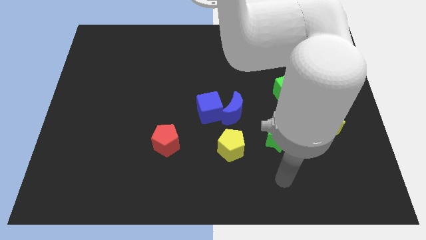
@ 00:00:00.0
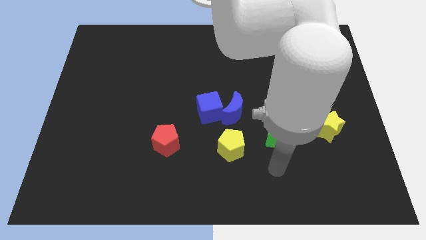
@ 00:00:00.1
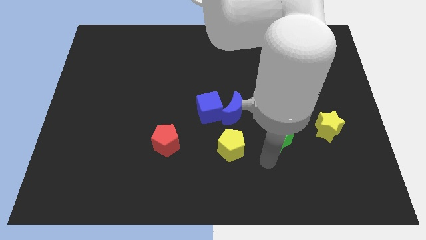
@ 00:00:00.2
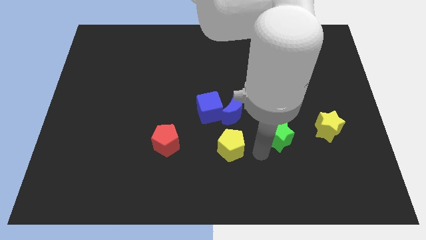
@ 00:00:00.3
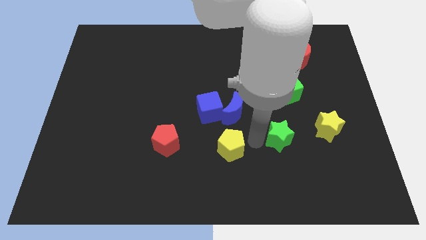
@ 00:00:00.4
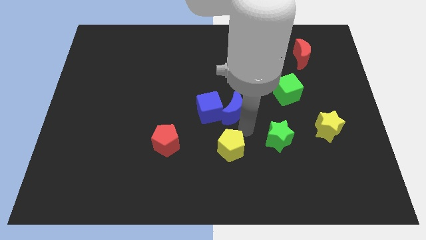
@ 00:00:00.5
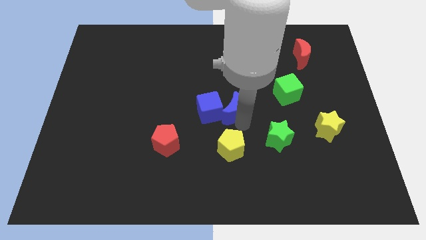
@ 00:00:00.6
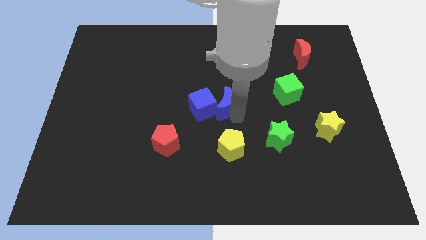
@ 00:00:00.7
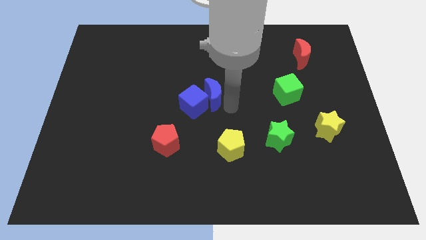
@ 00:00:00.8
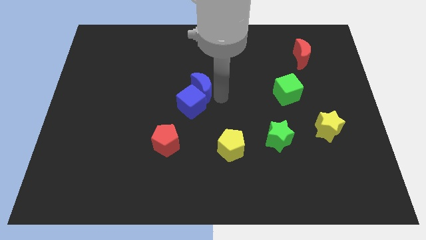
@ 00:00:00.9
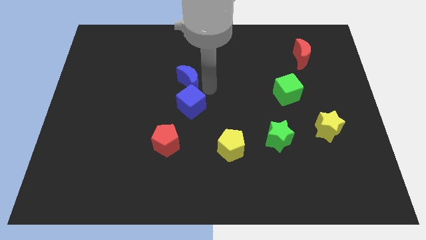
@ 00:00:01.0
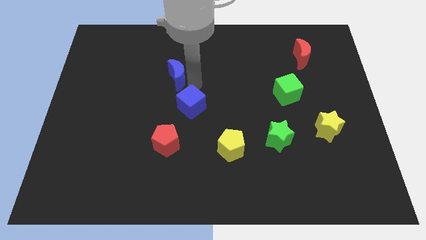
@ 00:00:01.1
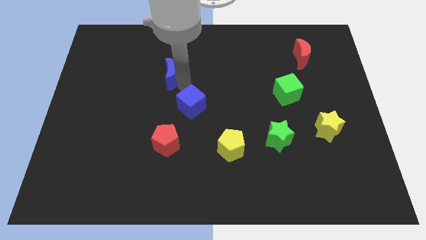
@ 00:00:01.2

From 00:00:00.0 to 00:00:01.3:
separate the blue cube from the blue moon

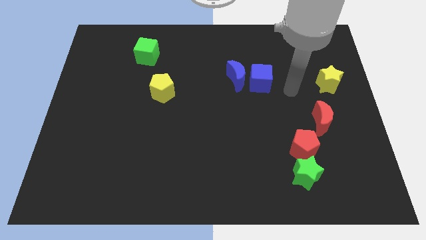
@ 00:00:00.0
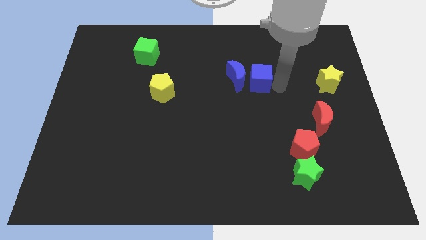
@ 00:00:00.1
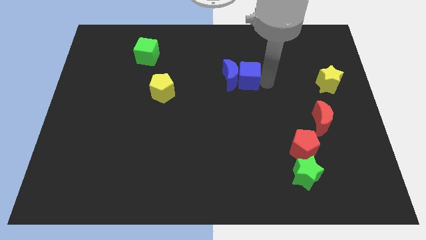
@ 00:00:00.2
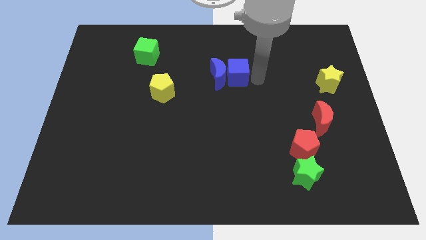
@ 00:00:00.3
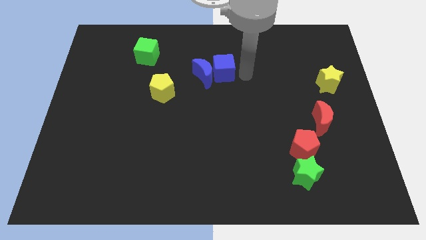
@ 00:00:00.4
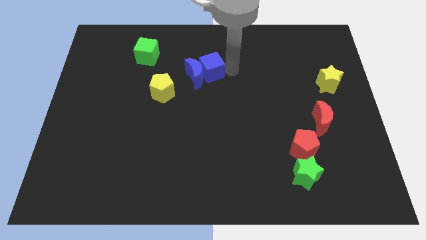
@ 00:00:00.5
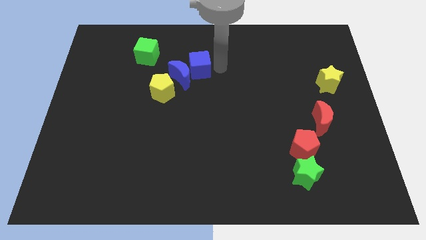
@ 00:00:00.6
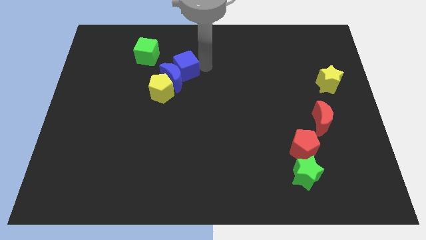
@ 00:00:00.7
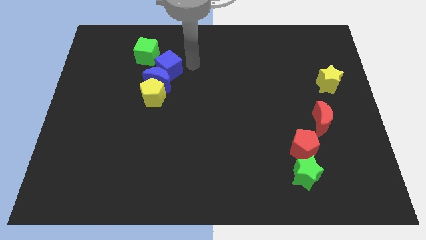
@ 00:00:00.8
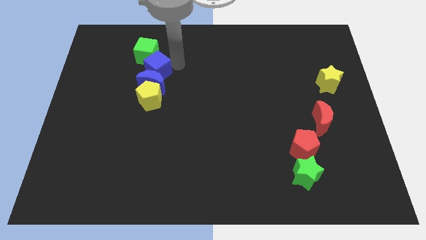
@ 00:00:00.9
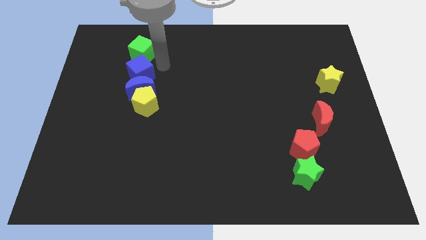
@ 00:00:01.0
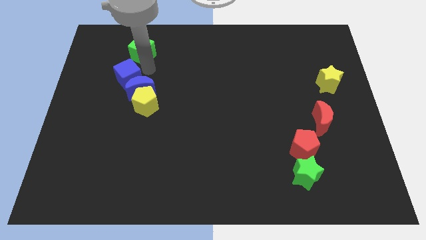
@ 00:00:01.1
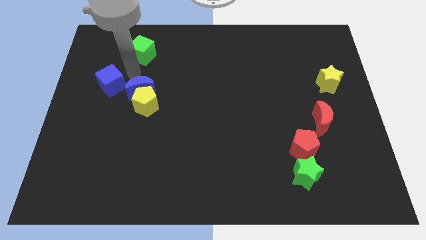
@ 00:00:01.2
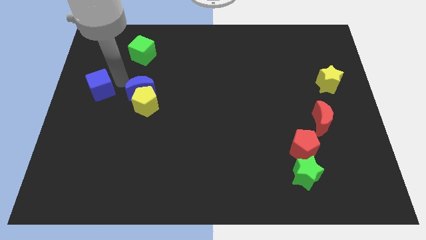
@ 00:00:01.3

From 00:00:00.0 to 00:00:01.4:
separate the blue moon from the blue cube

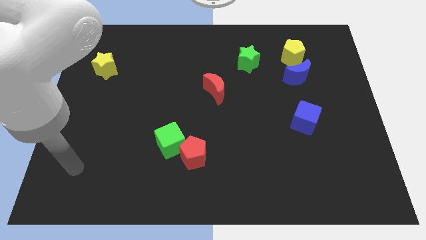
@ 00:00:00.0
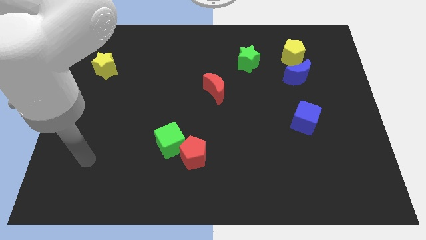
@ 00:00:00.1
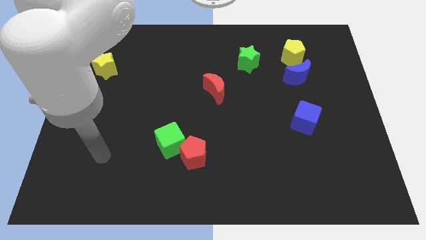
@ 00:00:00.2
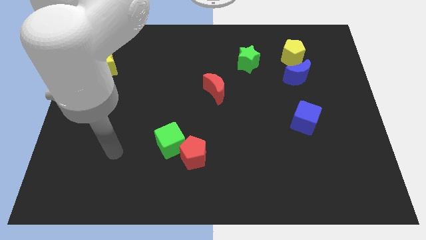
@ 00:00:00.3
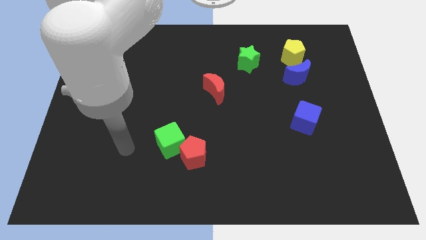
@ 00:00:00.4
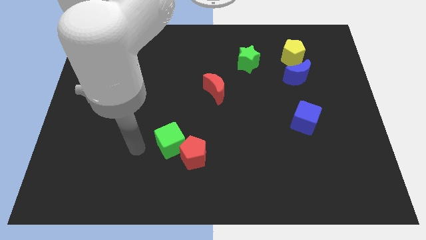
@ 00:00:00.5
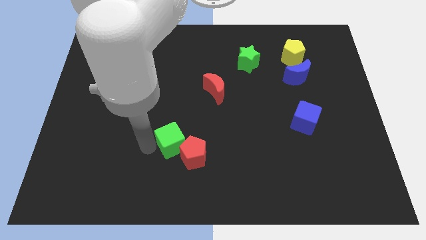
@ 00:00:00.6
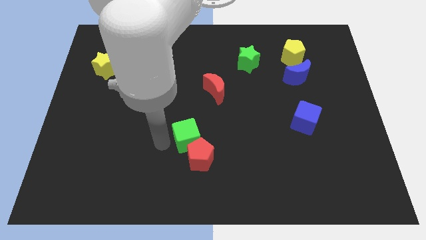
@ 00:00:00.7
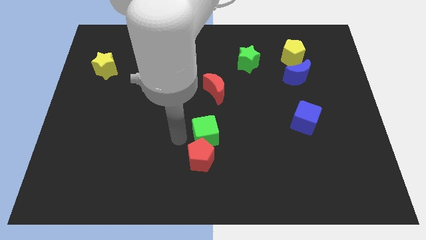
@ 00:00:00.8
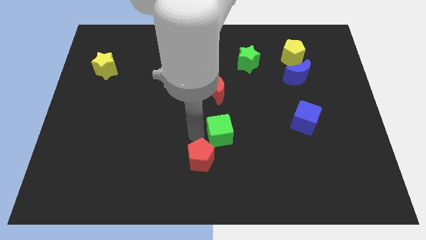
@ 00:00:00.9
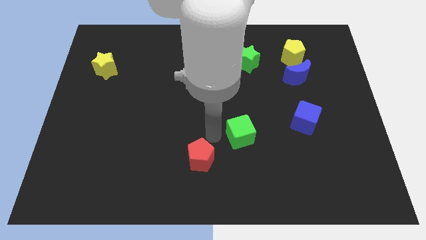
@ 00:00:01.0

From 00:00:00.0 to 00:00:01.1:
pull the red pentagon apart from the green cube

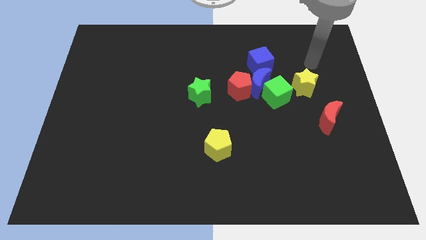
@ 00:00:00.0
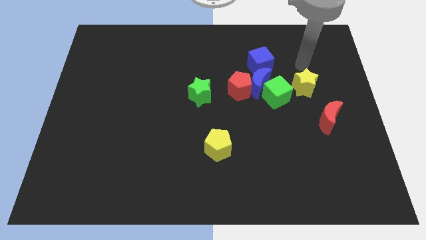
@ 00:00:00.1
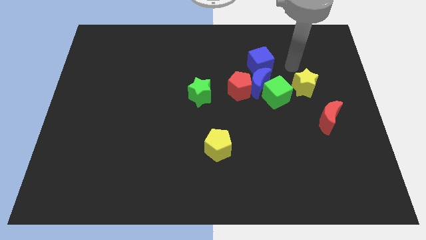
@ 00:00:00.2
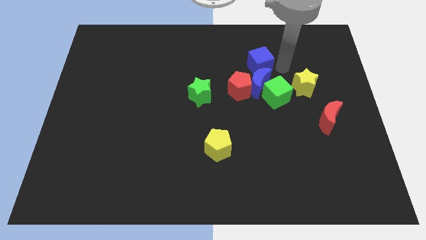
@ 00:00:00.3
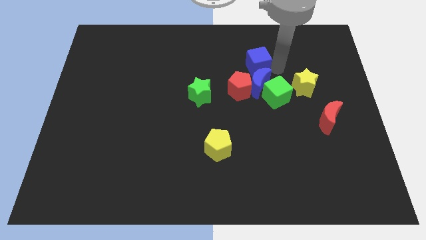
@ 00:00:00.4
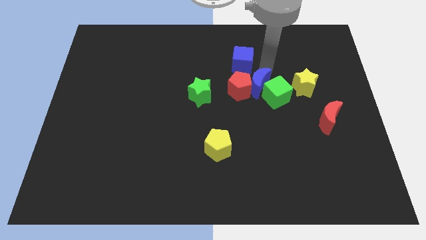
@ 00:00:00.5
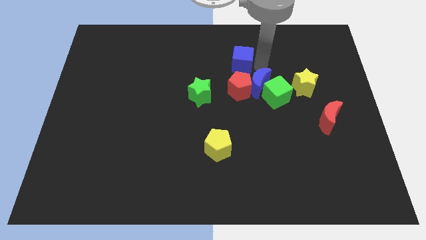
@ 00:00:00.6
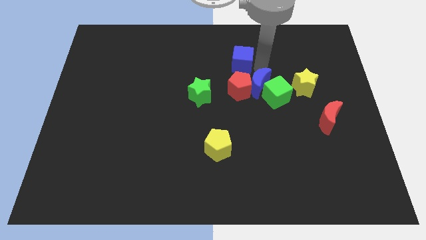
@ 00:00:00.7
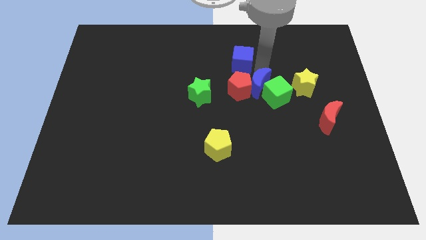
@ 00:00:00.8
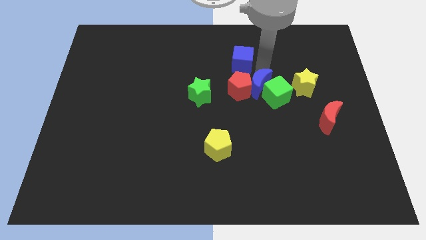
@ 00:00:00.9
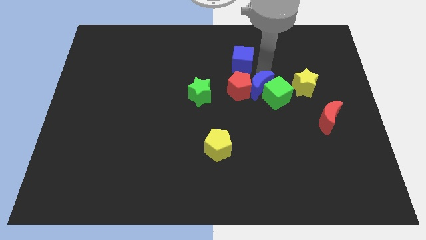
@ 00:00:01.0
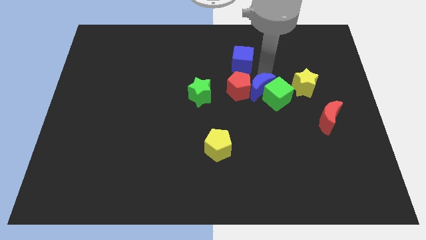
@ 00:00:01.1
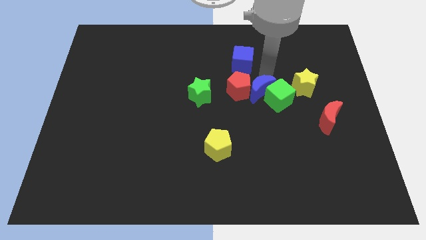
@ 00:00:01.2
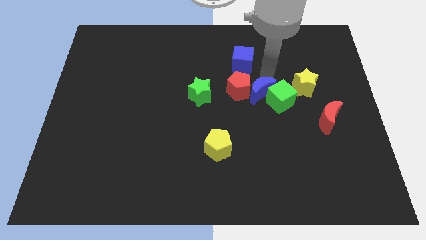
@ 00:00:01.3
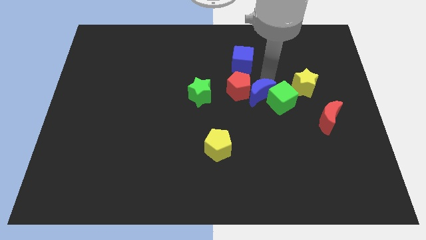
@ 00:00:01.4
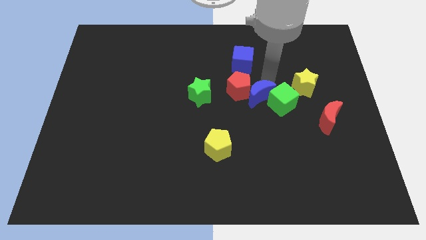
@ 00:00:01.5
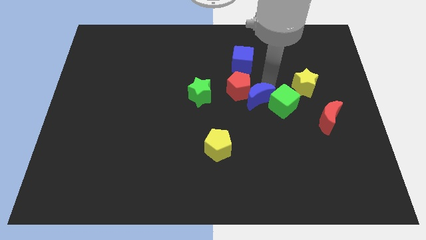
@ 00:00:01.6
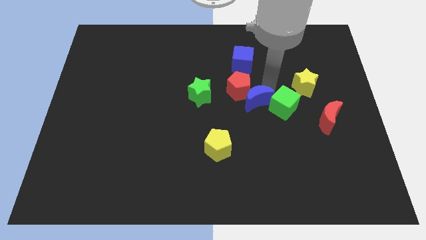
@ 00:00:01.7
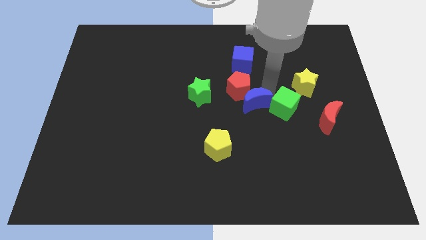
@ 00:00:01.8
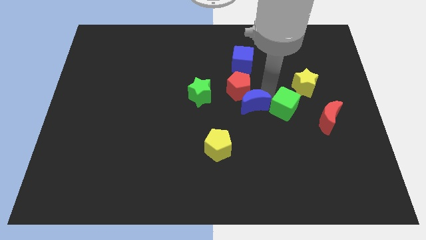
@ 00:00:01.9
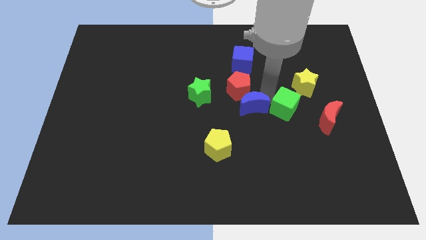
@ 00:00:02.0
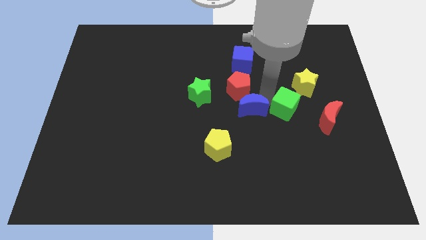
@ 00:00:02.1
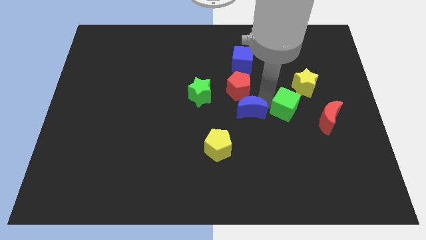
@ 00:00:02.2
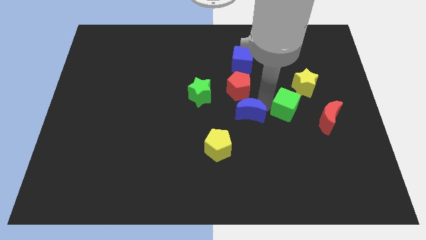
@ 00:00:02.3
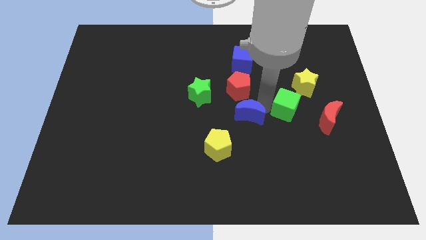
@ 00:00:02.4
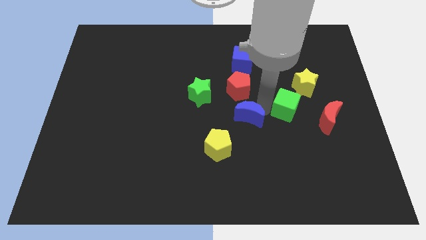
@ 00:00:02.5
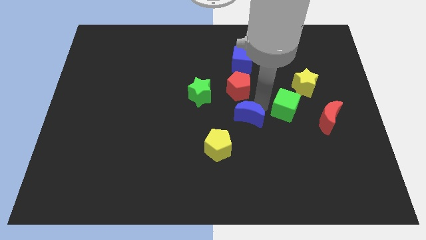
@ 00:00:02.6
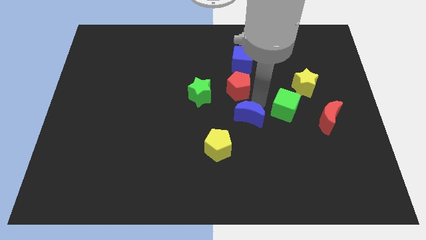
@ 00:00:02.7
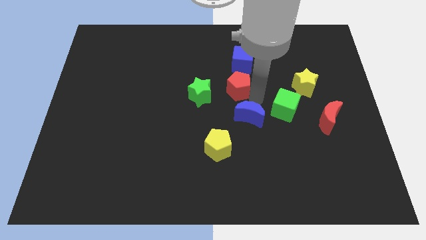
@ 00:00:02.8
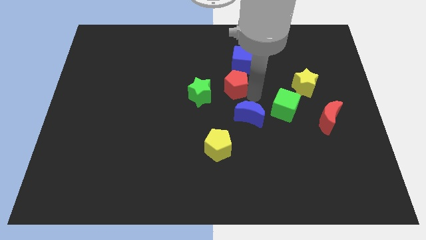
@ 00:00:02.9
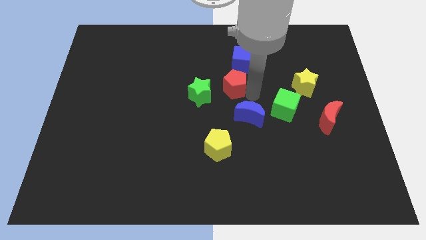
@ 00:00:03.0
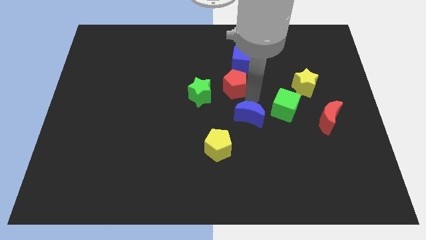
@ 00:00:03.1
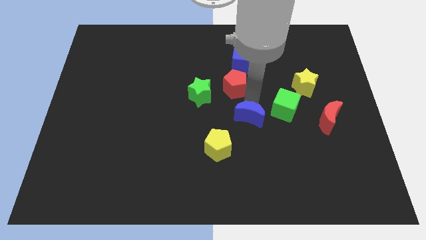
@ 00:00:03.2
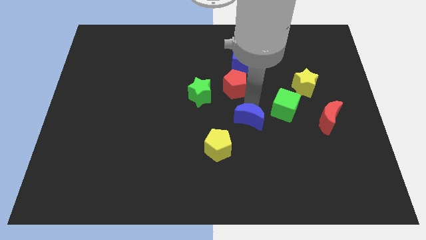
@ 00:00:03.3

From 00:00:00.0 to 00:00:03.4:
move the blue moon away from the red pentagon, green cube, and blue cube

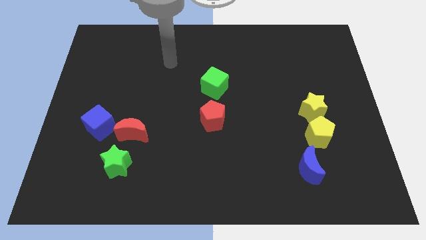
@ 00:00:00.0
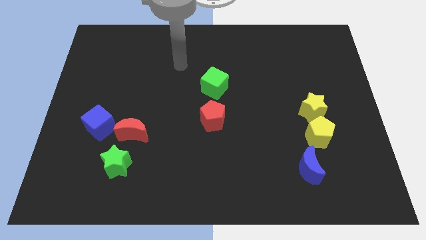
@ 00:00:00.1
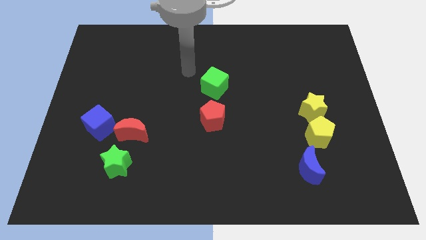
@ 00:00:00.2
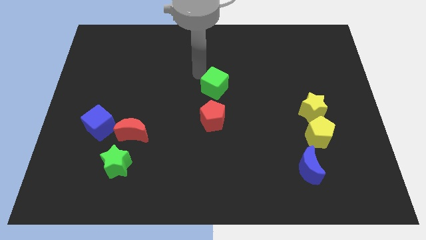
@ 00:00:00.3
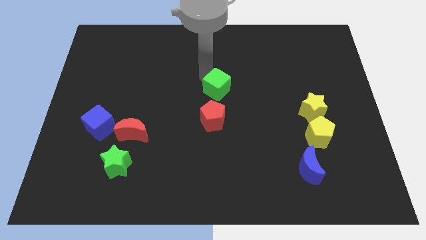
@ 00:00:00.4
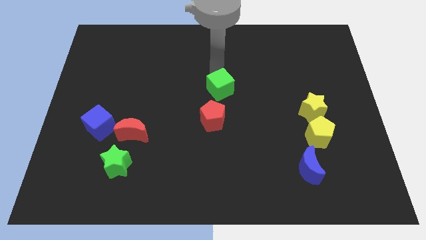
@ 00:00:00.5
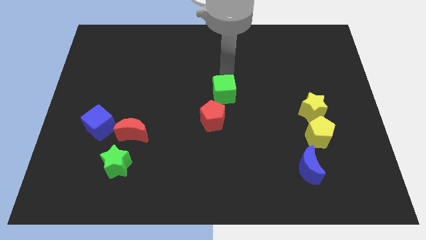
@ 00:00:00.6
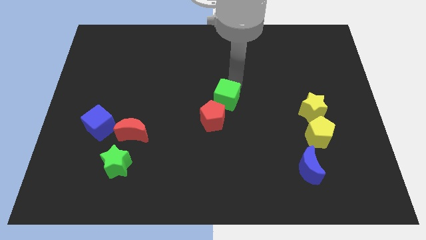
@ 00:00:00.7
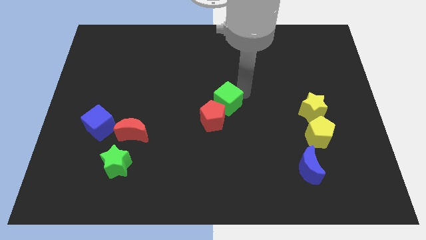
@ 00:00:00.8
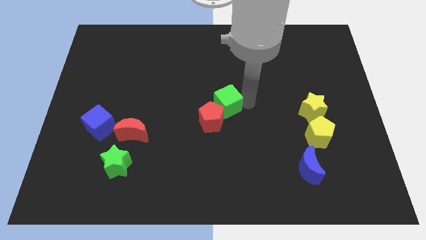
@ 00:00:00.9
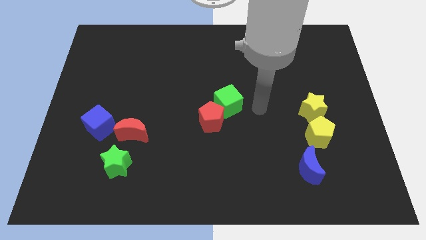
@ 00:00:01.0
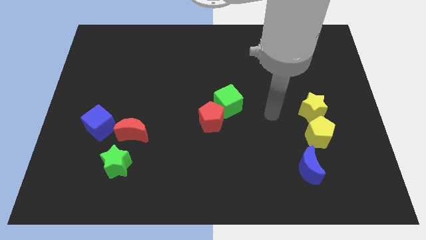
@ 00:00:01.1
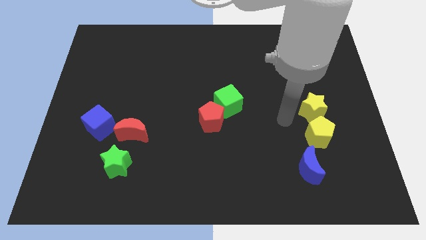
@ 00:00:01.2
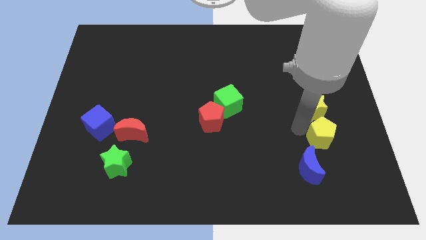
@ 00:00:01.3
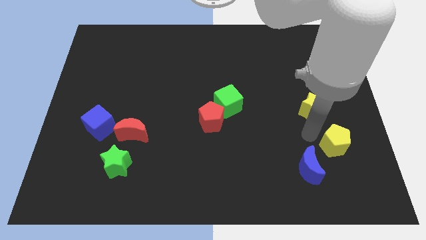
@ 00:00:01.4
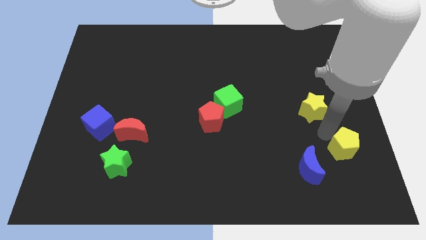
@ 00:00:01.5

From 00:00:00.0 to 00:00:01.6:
move the yellow star away from the yellow pentagon

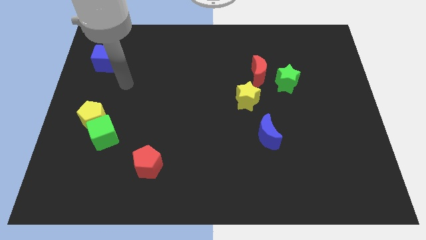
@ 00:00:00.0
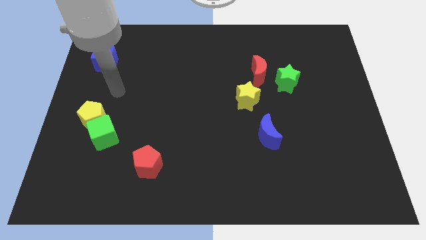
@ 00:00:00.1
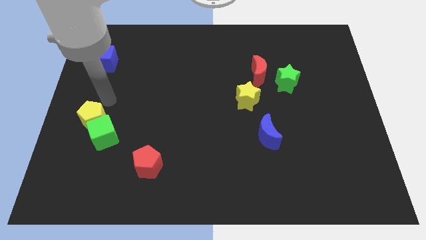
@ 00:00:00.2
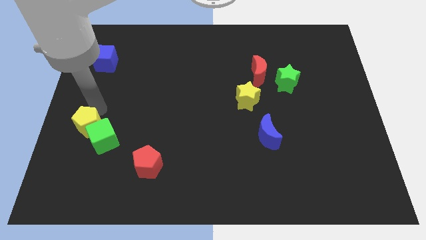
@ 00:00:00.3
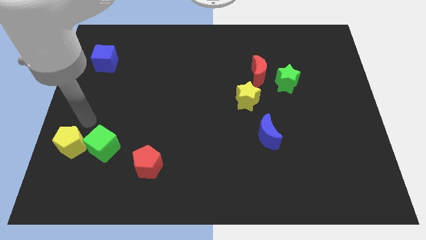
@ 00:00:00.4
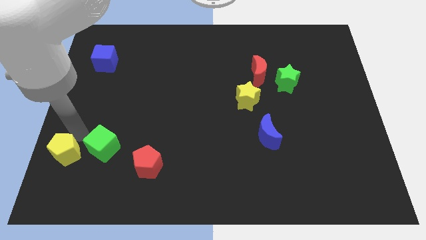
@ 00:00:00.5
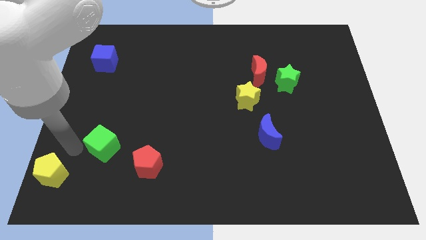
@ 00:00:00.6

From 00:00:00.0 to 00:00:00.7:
separate the green cube from the yellow pentagon
